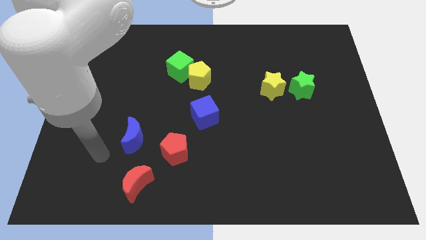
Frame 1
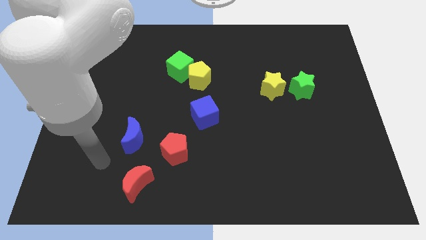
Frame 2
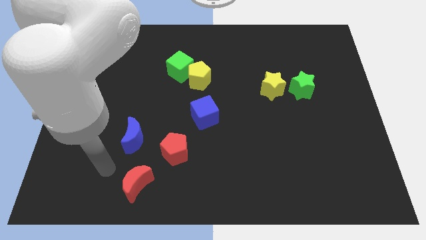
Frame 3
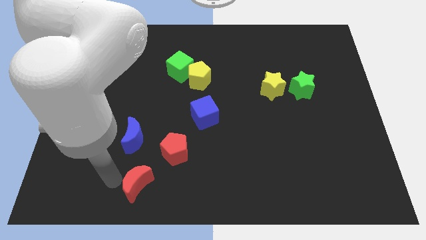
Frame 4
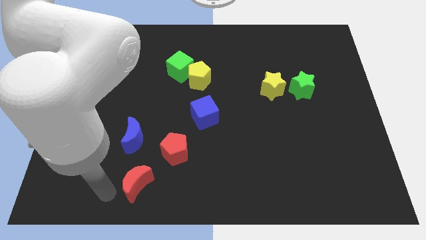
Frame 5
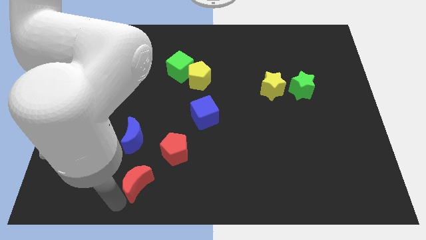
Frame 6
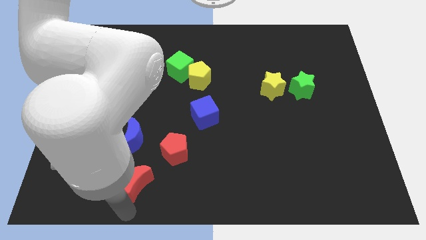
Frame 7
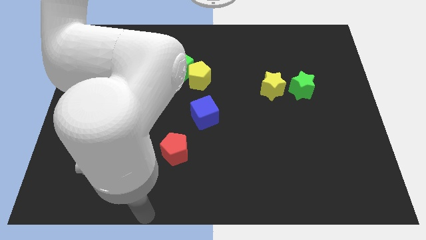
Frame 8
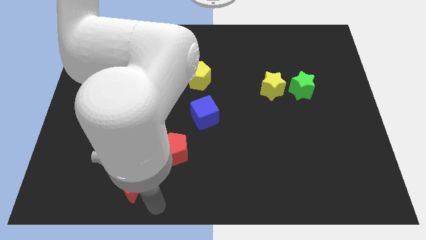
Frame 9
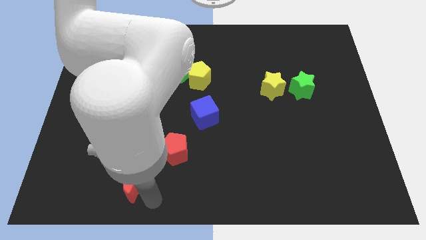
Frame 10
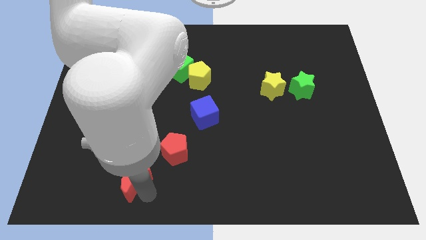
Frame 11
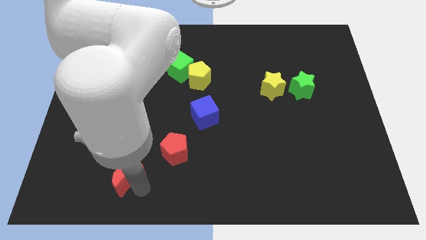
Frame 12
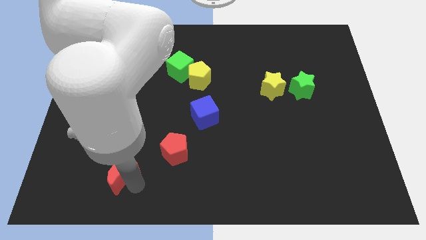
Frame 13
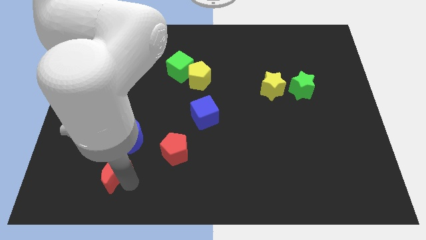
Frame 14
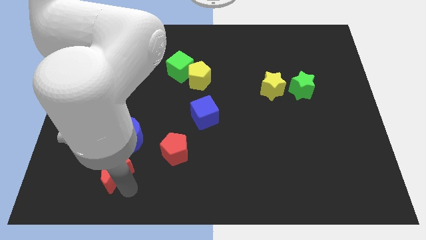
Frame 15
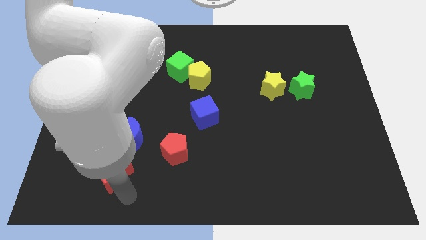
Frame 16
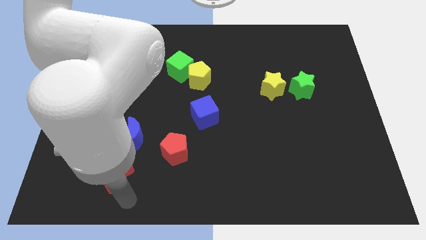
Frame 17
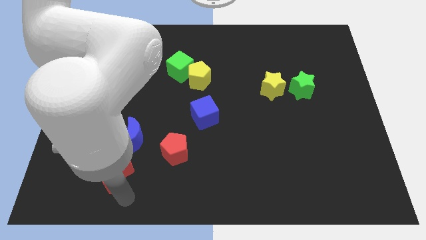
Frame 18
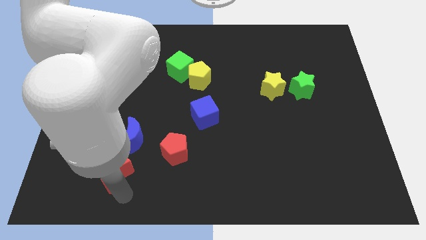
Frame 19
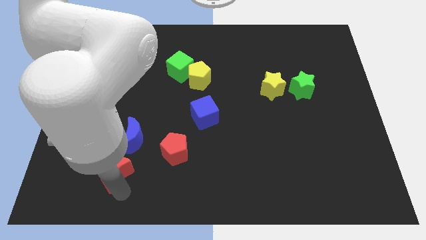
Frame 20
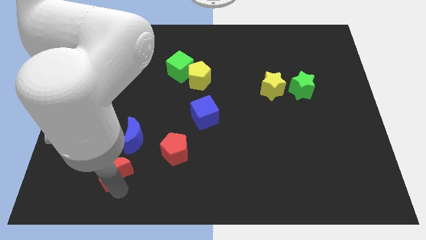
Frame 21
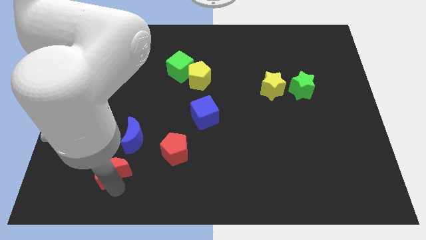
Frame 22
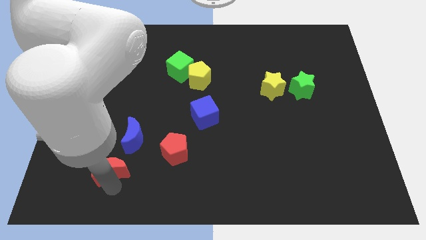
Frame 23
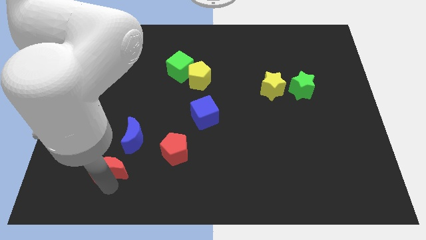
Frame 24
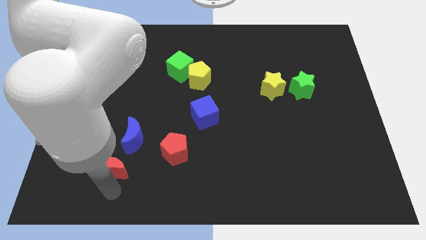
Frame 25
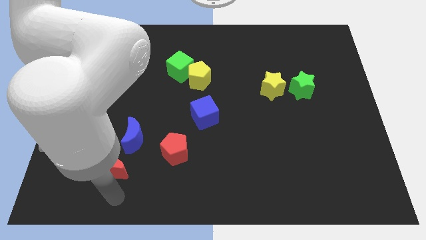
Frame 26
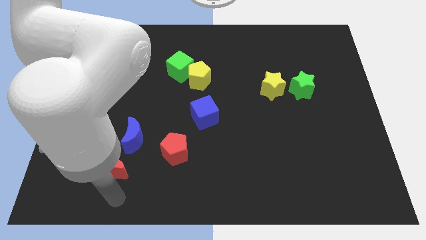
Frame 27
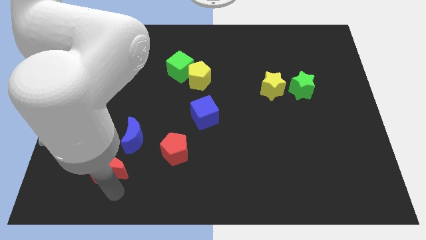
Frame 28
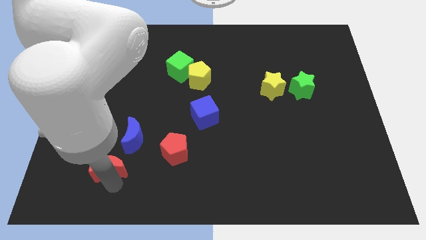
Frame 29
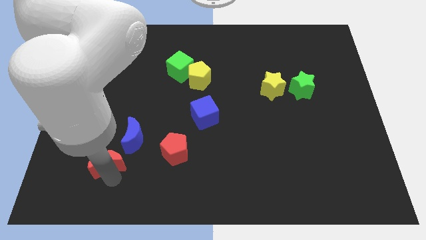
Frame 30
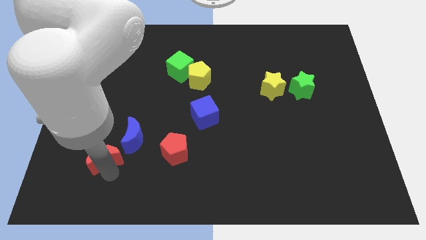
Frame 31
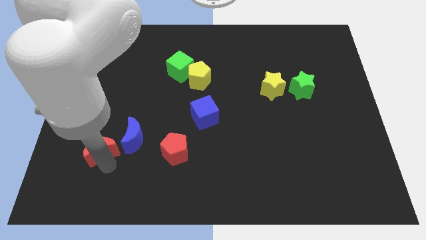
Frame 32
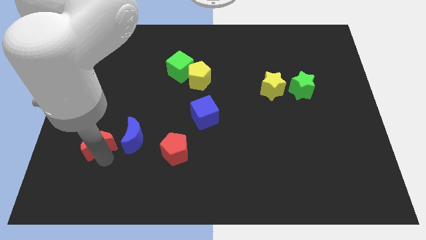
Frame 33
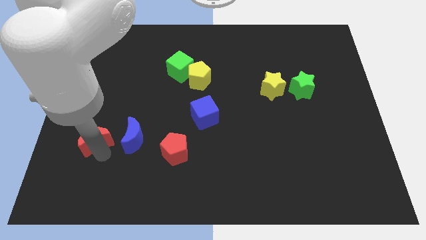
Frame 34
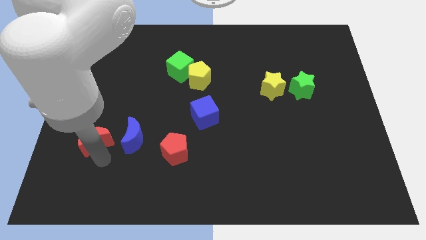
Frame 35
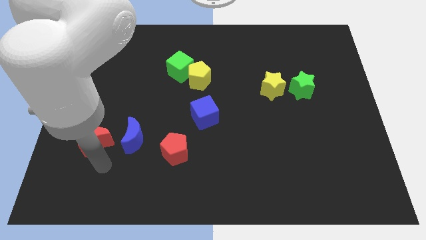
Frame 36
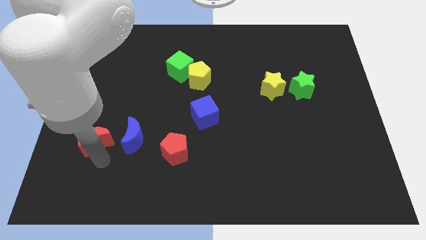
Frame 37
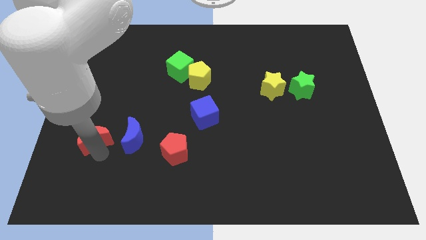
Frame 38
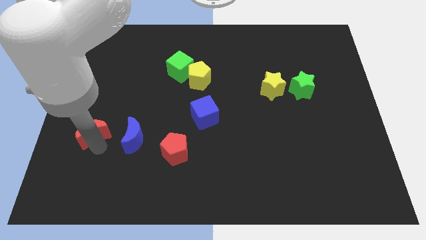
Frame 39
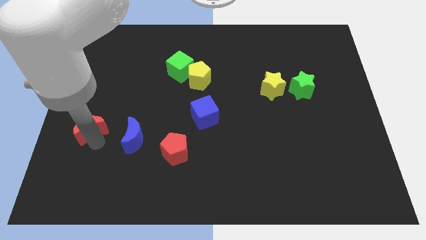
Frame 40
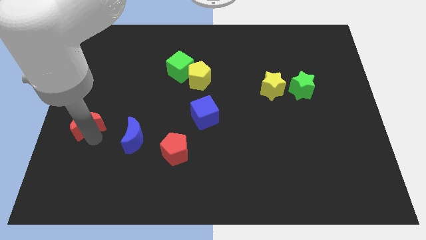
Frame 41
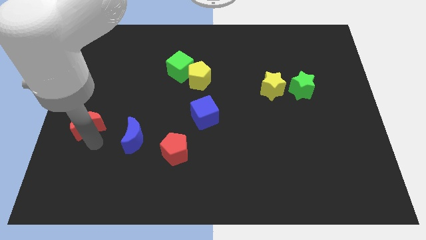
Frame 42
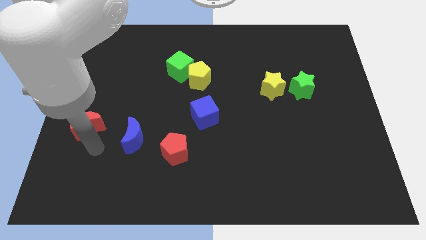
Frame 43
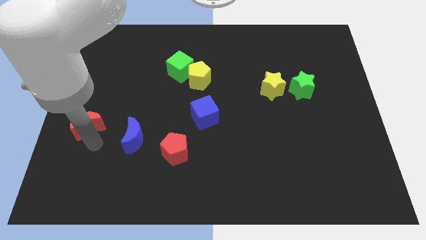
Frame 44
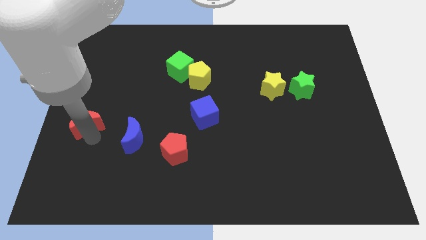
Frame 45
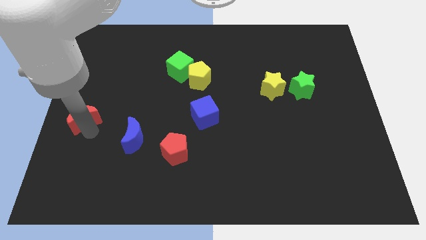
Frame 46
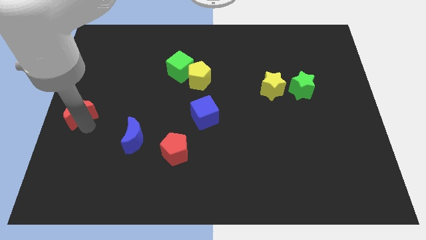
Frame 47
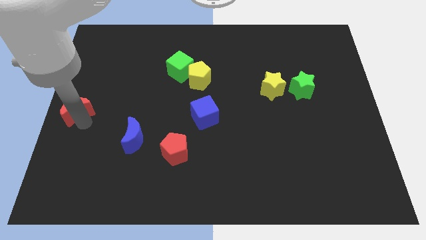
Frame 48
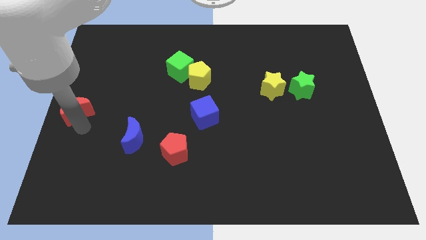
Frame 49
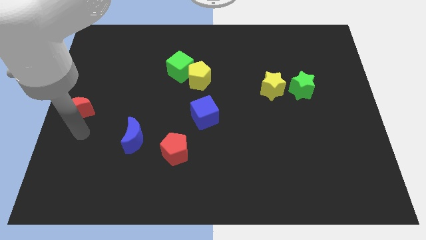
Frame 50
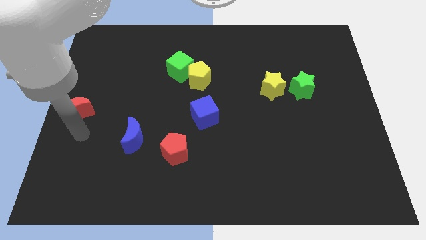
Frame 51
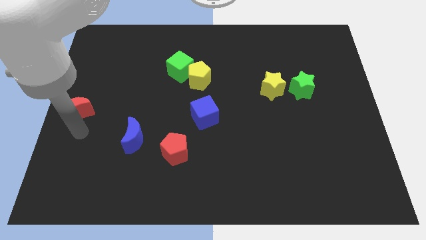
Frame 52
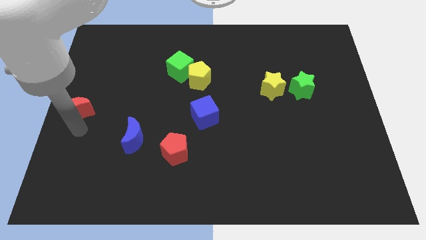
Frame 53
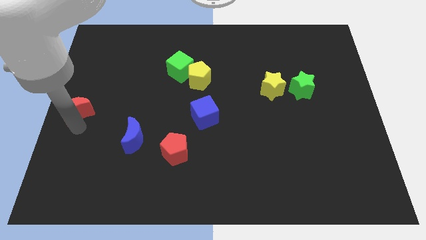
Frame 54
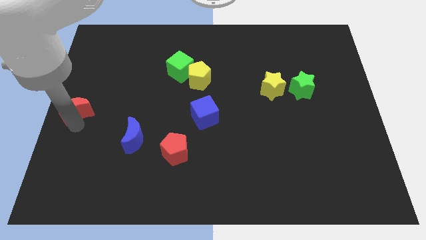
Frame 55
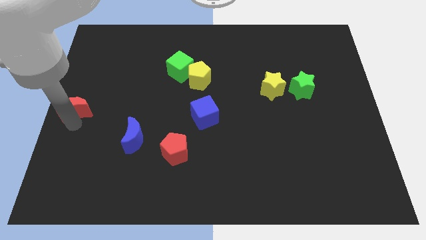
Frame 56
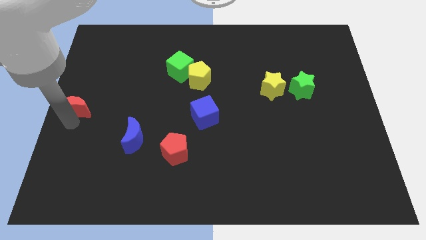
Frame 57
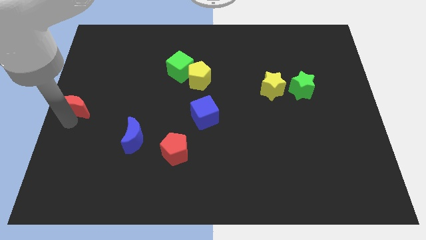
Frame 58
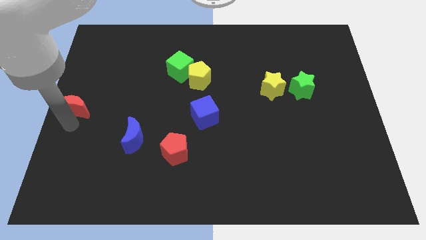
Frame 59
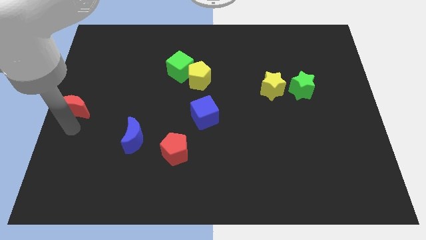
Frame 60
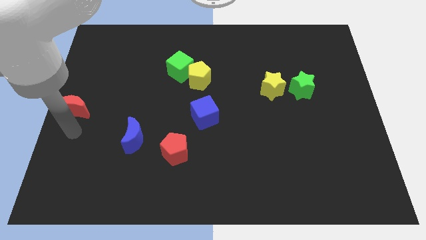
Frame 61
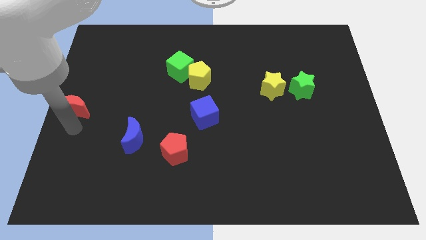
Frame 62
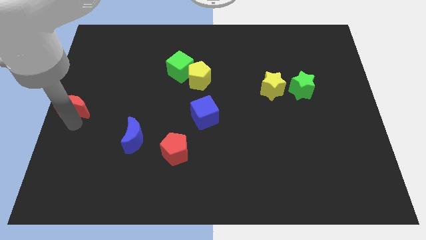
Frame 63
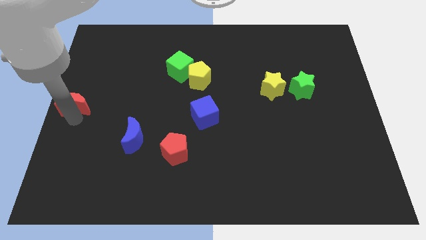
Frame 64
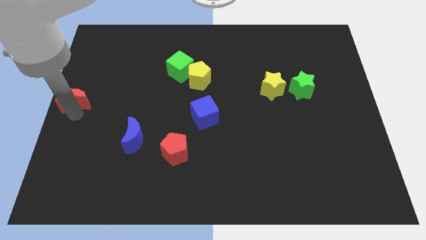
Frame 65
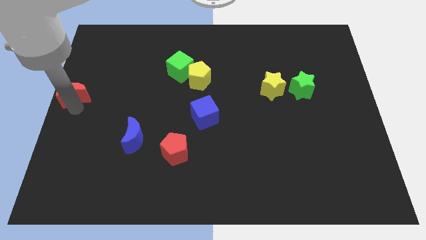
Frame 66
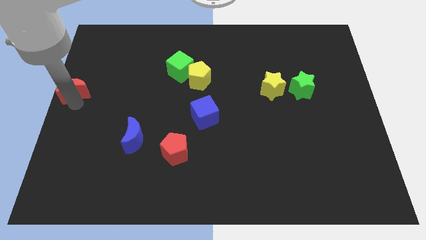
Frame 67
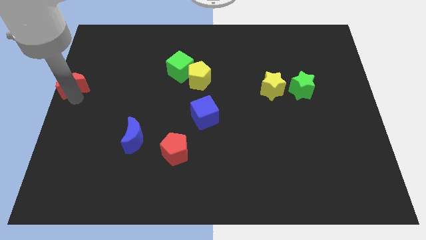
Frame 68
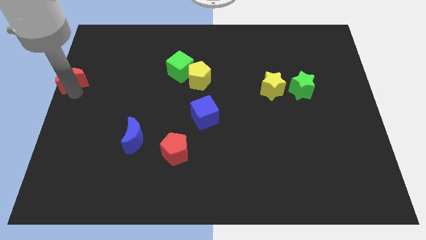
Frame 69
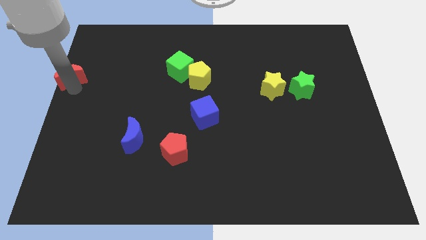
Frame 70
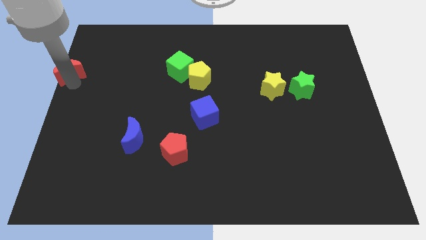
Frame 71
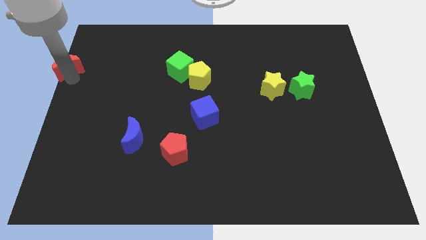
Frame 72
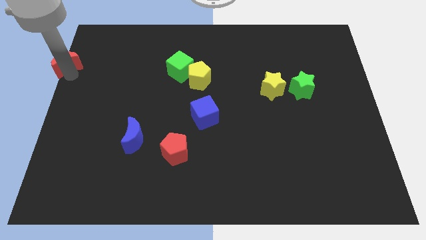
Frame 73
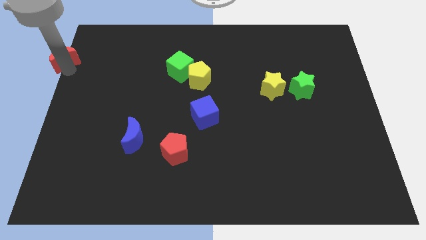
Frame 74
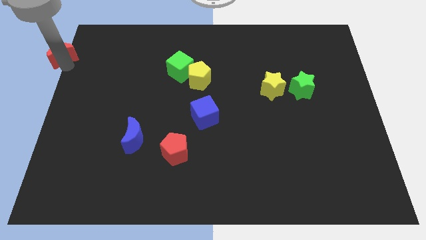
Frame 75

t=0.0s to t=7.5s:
slide the red moon to the top left of the board

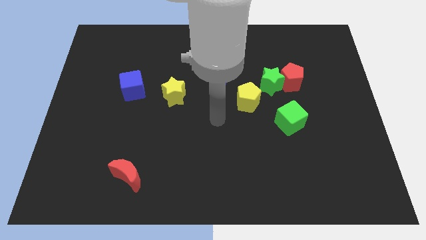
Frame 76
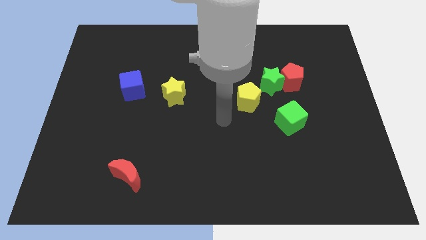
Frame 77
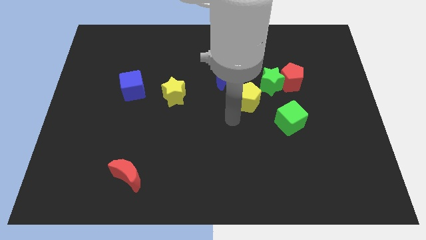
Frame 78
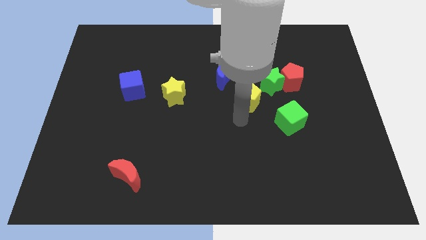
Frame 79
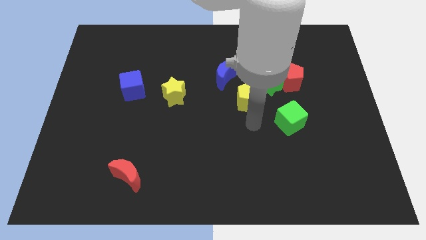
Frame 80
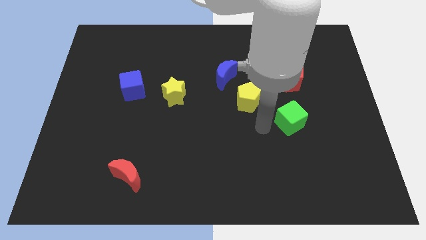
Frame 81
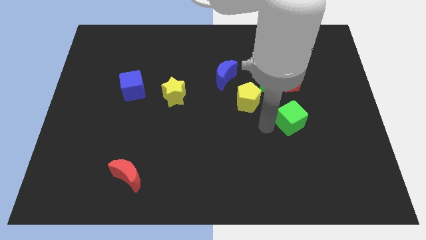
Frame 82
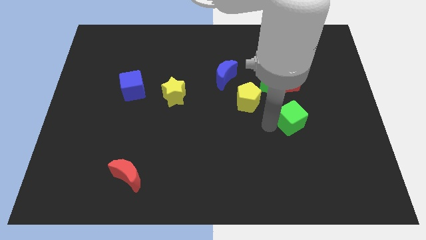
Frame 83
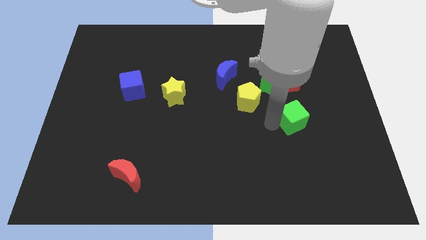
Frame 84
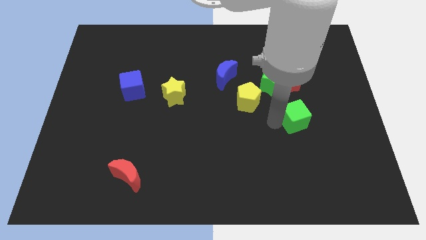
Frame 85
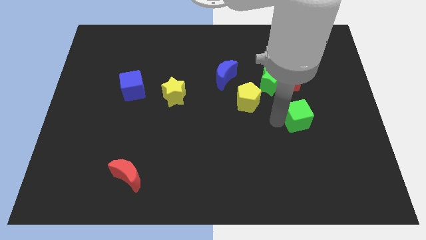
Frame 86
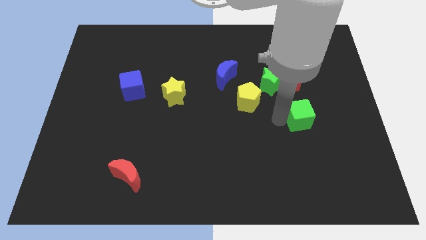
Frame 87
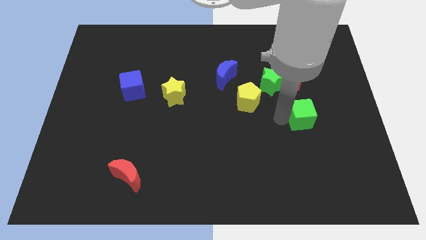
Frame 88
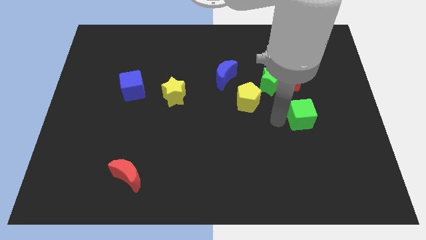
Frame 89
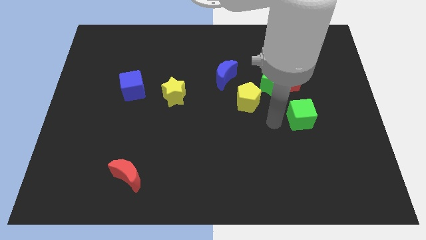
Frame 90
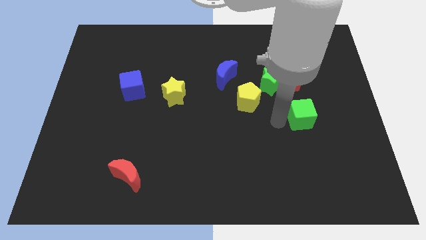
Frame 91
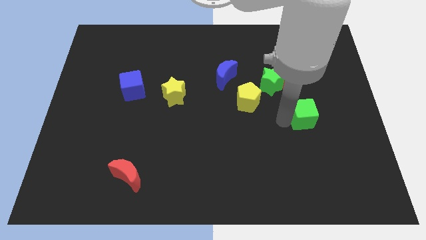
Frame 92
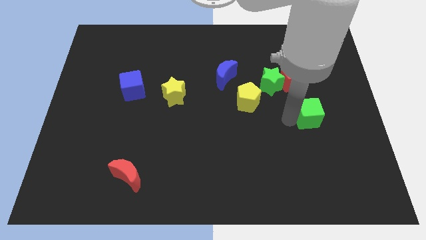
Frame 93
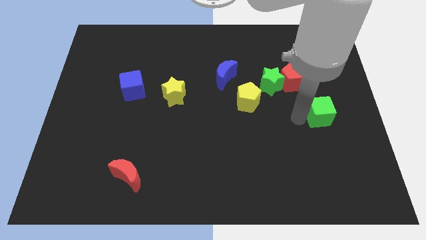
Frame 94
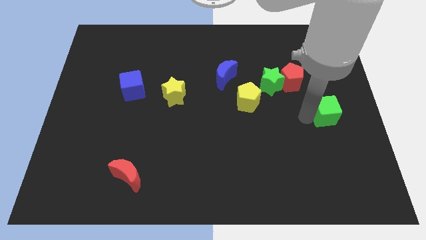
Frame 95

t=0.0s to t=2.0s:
move the green cube to the right side
